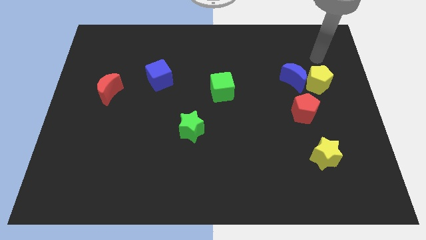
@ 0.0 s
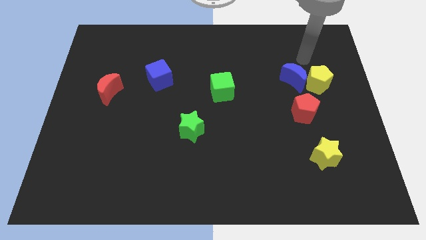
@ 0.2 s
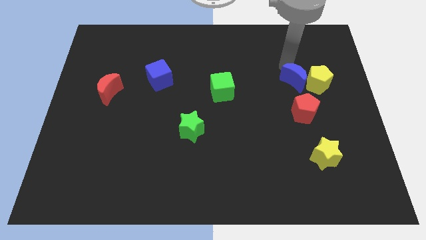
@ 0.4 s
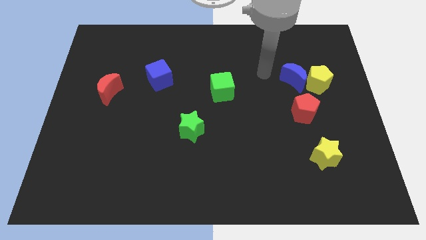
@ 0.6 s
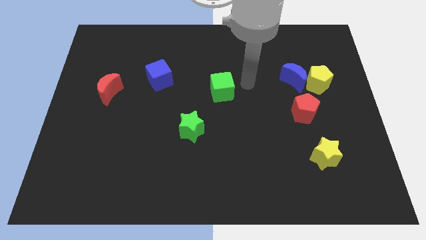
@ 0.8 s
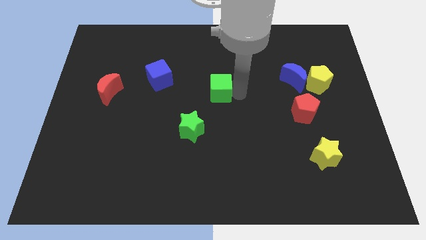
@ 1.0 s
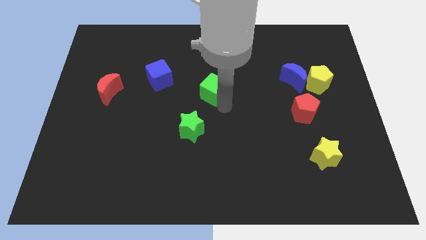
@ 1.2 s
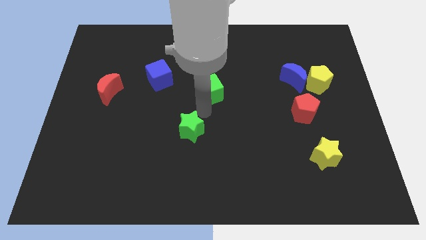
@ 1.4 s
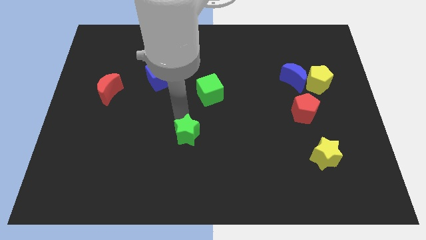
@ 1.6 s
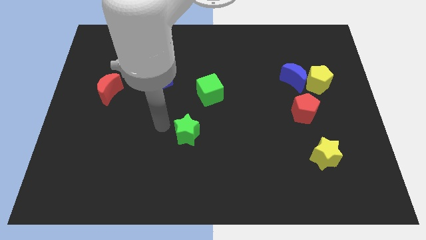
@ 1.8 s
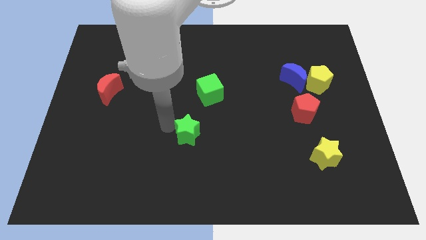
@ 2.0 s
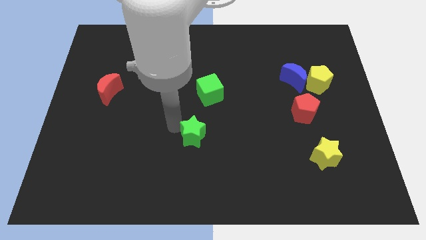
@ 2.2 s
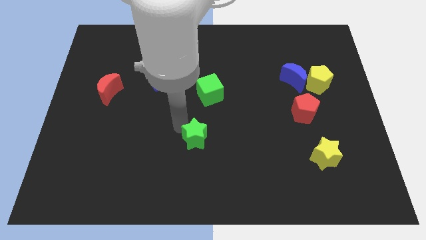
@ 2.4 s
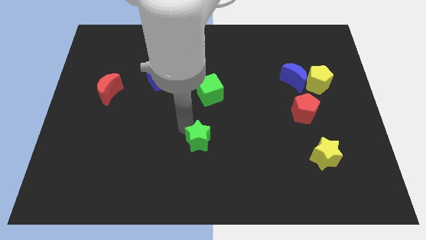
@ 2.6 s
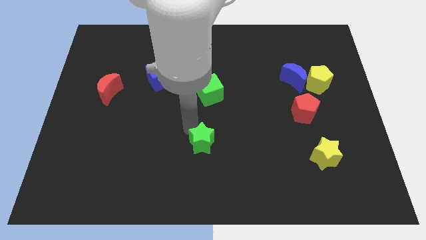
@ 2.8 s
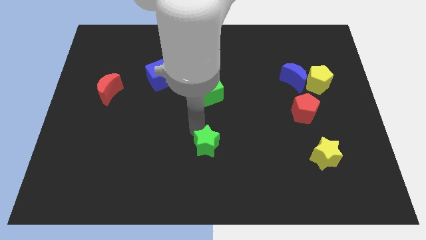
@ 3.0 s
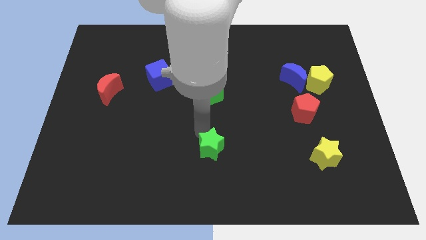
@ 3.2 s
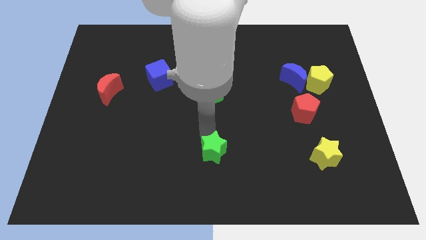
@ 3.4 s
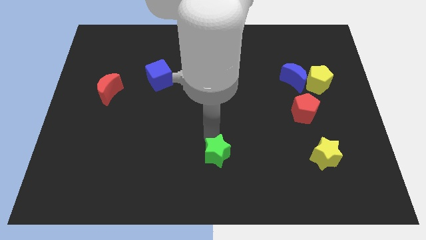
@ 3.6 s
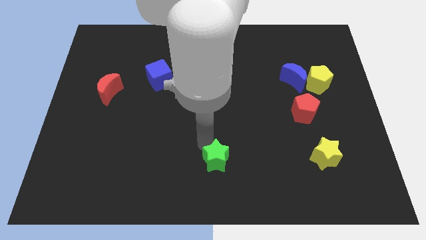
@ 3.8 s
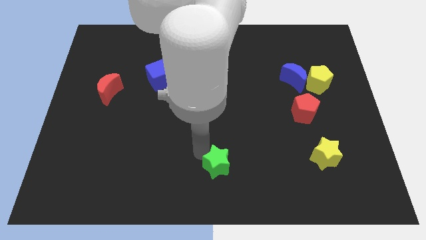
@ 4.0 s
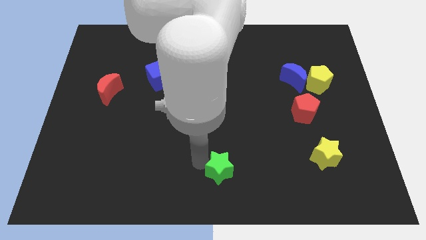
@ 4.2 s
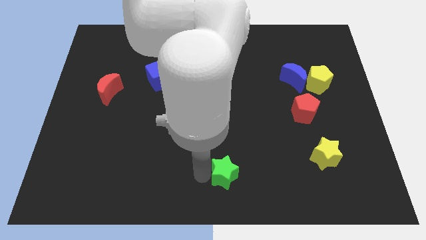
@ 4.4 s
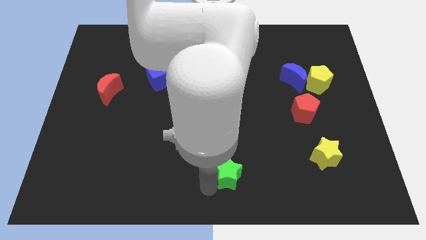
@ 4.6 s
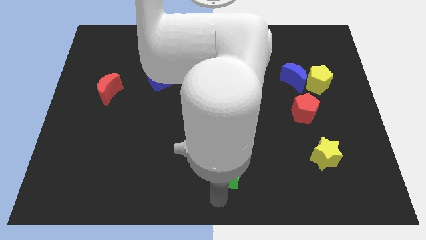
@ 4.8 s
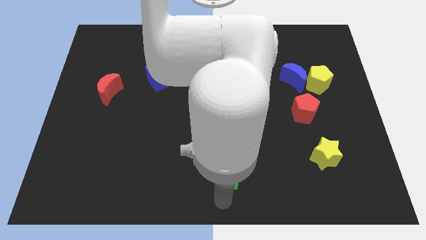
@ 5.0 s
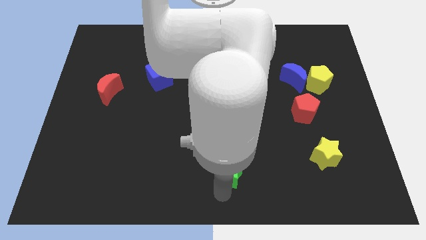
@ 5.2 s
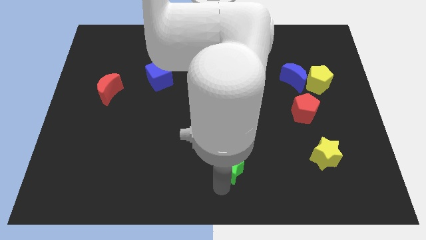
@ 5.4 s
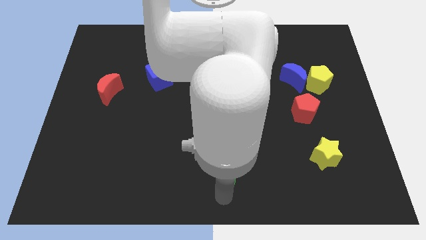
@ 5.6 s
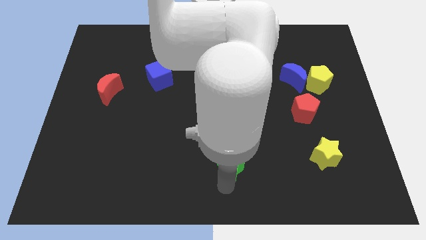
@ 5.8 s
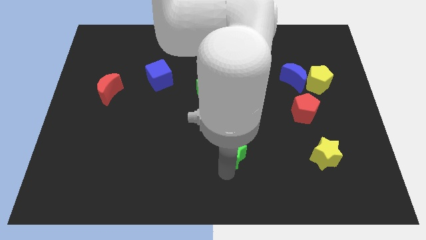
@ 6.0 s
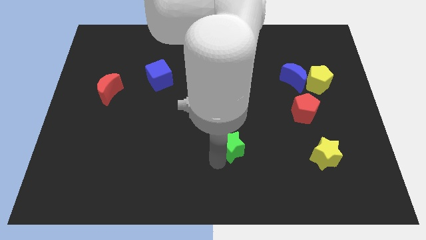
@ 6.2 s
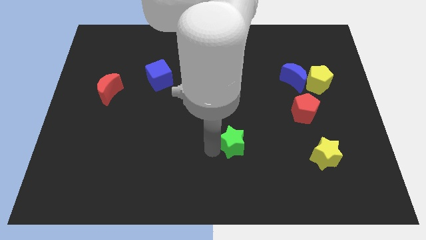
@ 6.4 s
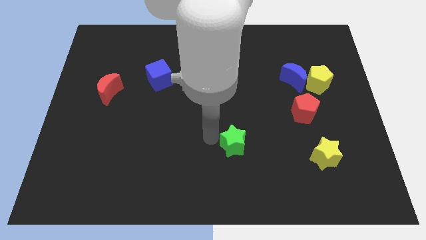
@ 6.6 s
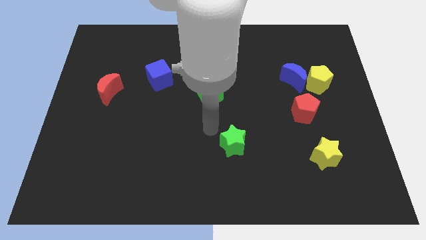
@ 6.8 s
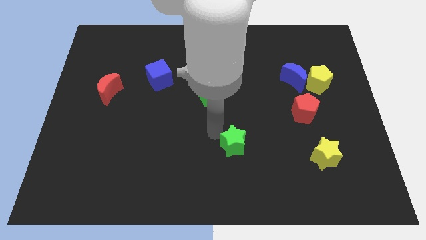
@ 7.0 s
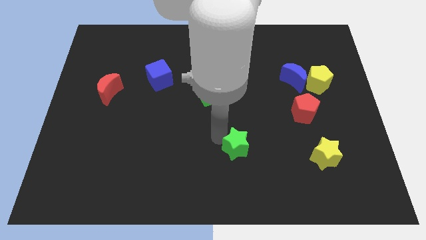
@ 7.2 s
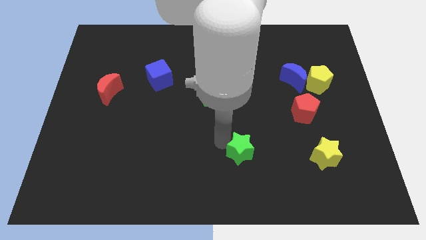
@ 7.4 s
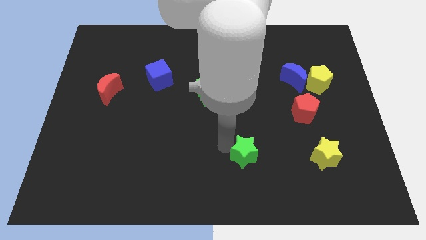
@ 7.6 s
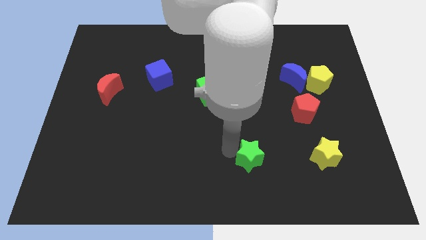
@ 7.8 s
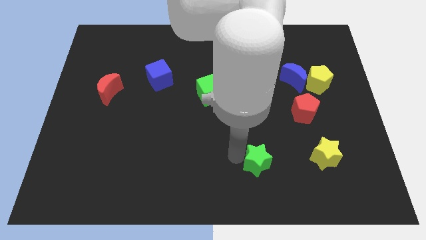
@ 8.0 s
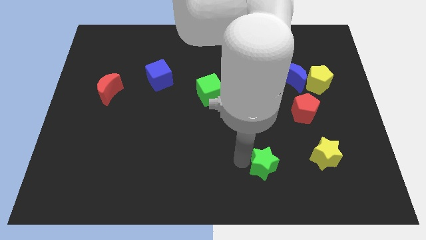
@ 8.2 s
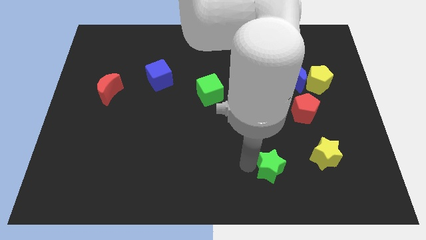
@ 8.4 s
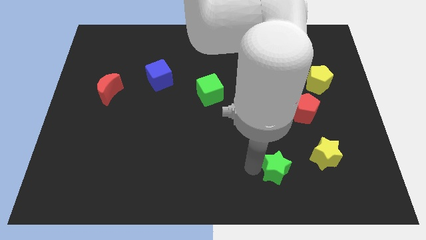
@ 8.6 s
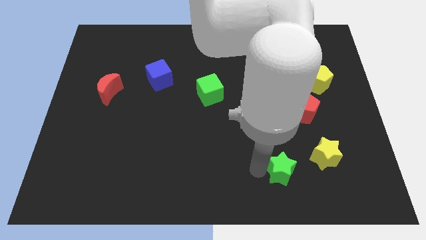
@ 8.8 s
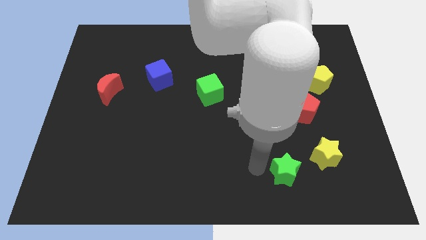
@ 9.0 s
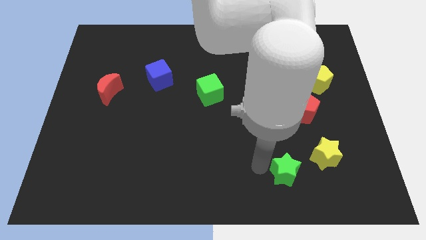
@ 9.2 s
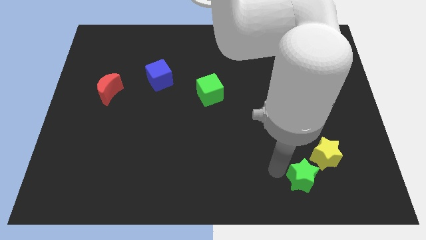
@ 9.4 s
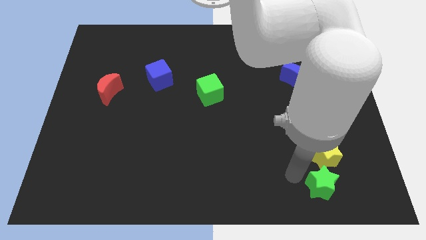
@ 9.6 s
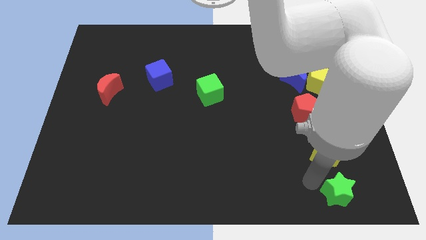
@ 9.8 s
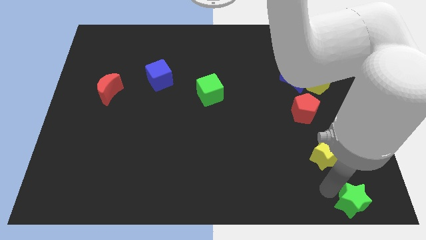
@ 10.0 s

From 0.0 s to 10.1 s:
put the green star to the bottom right corner

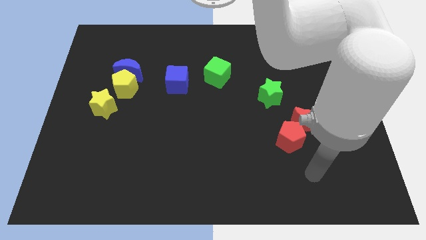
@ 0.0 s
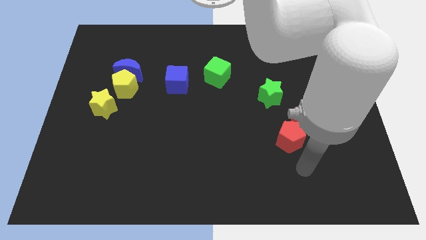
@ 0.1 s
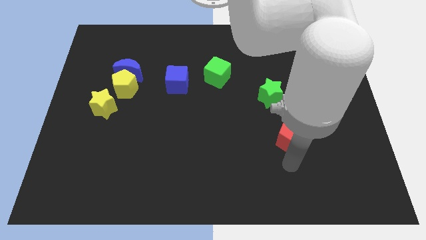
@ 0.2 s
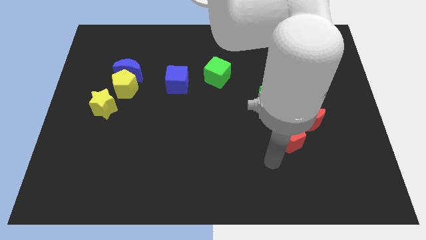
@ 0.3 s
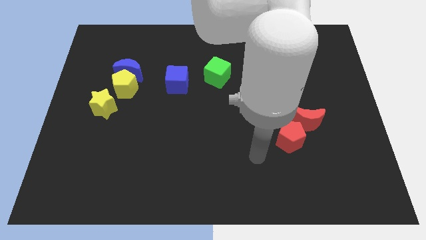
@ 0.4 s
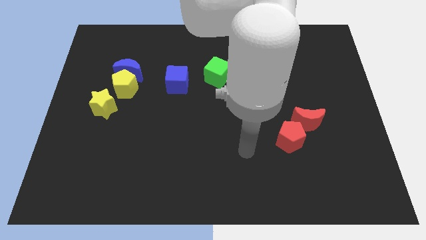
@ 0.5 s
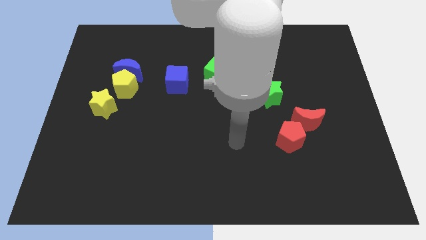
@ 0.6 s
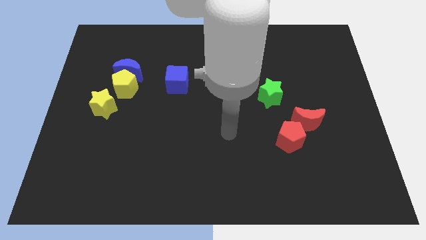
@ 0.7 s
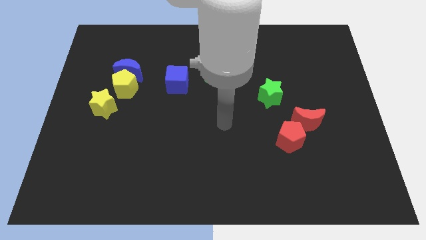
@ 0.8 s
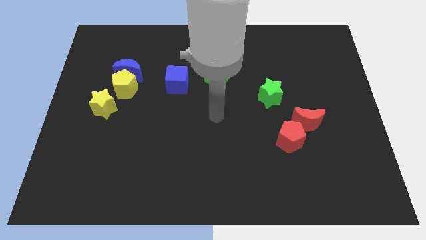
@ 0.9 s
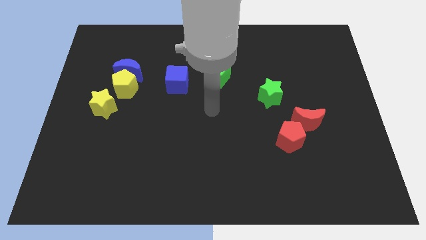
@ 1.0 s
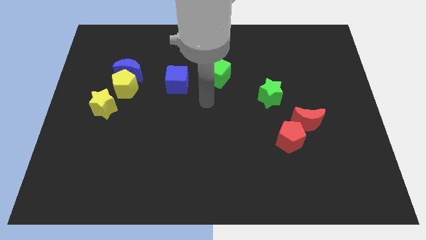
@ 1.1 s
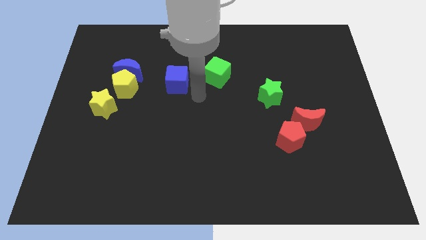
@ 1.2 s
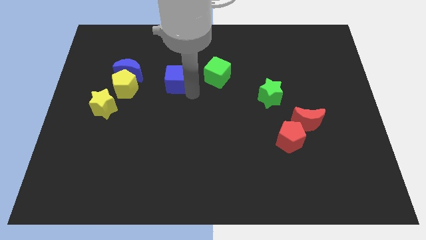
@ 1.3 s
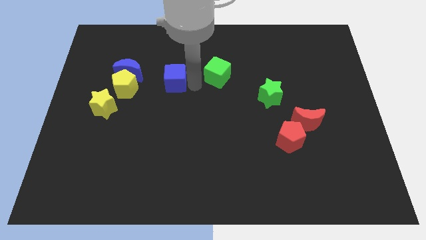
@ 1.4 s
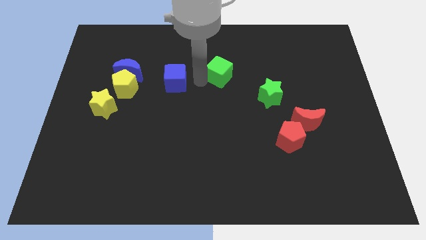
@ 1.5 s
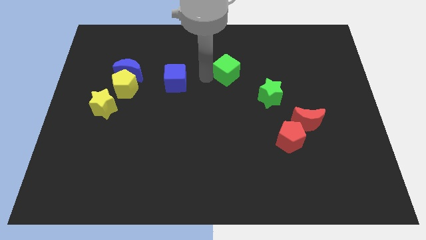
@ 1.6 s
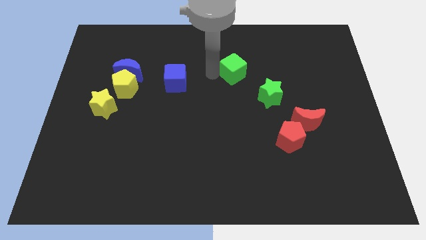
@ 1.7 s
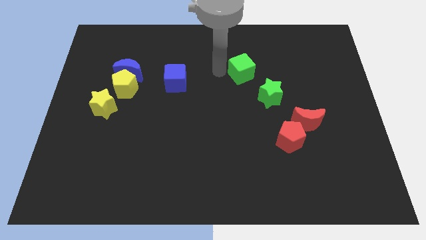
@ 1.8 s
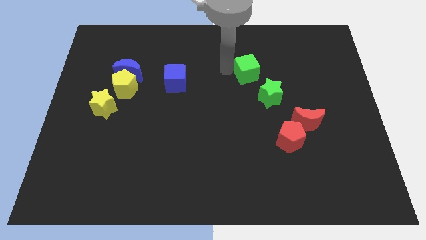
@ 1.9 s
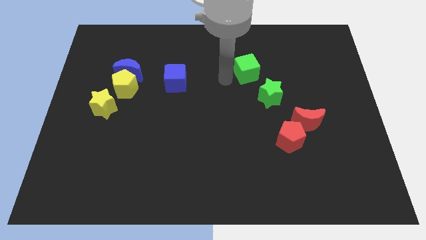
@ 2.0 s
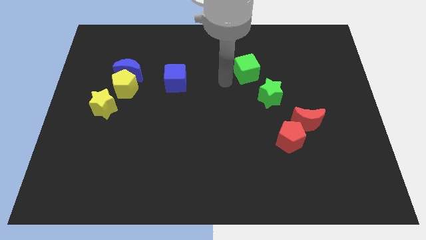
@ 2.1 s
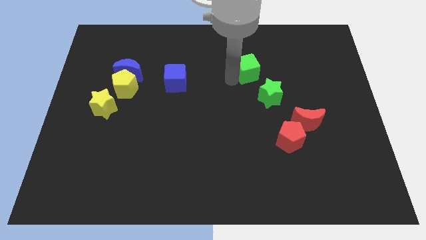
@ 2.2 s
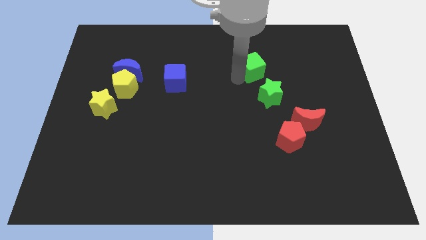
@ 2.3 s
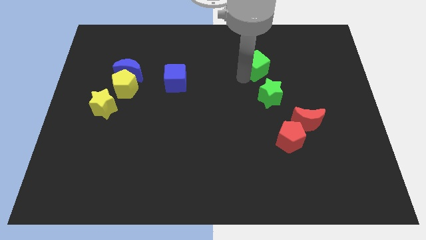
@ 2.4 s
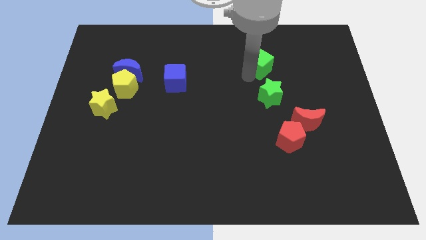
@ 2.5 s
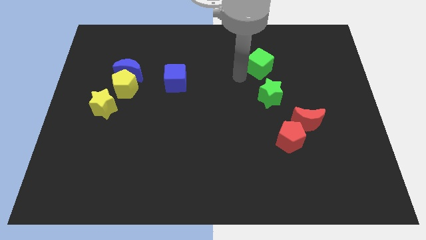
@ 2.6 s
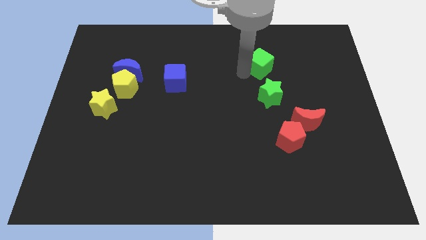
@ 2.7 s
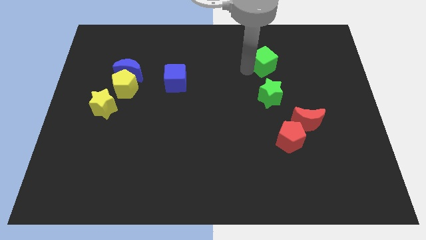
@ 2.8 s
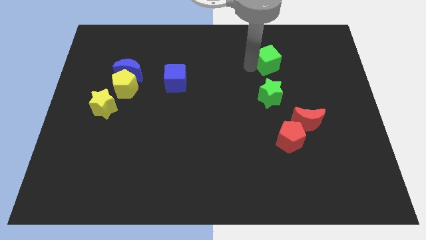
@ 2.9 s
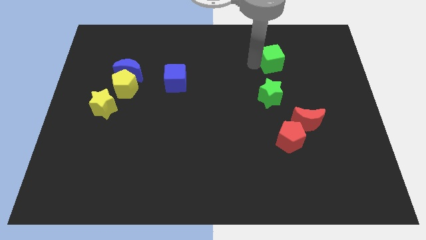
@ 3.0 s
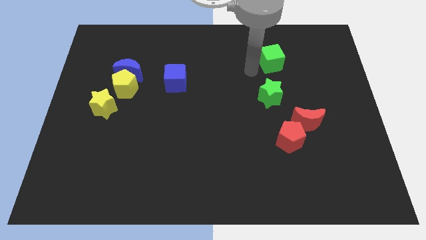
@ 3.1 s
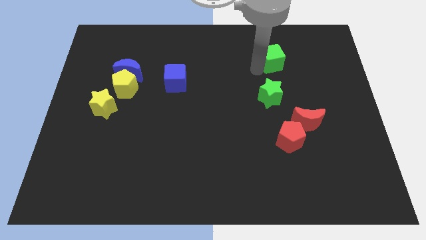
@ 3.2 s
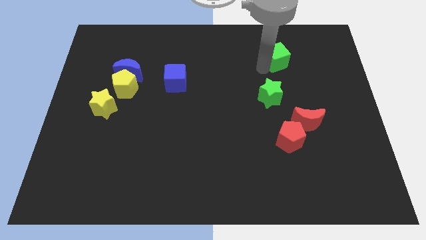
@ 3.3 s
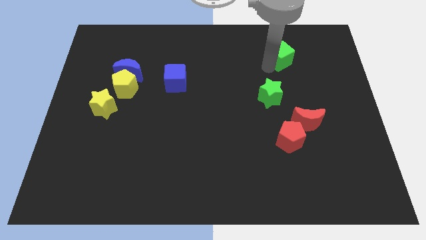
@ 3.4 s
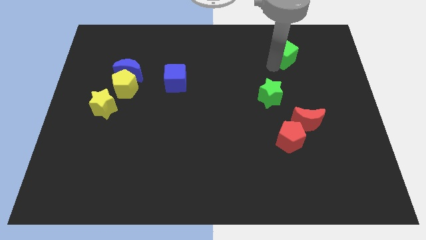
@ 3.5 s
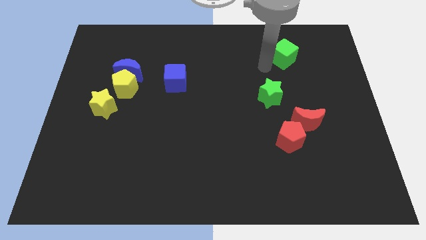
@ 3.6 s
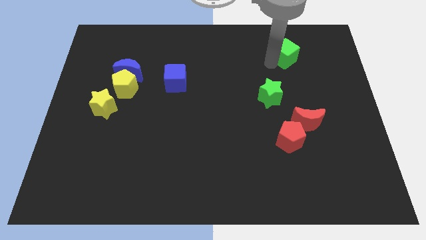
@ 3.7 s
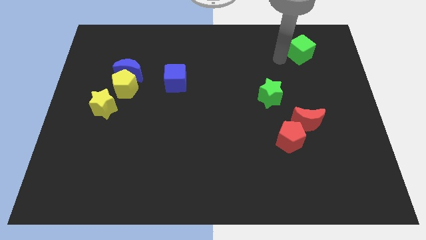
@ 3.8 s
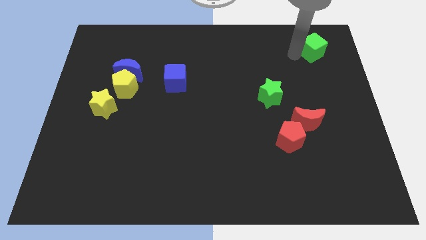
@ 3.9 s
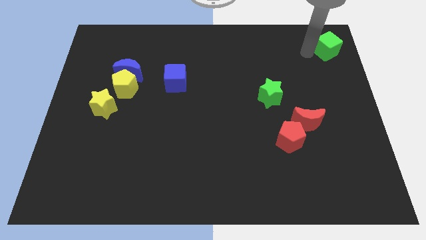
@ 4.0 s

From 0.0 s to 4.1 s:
put the green cube to the top right
